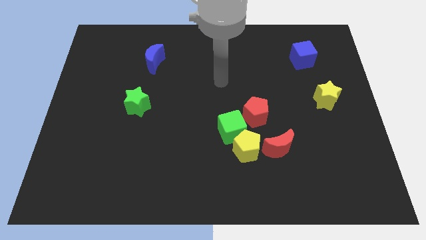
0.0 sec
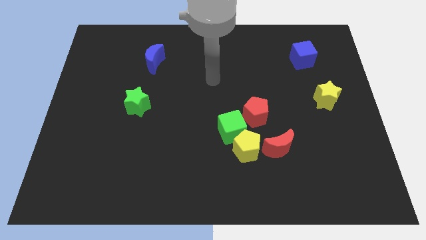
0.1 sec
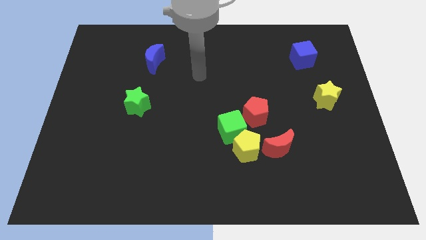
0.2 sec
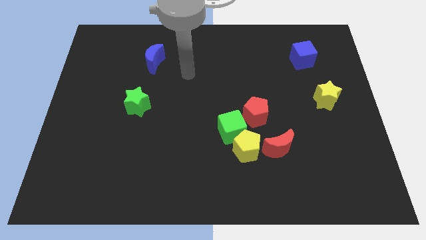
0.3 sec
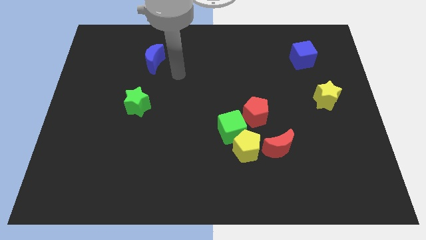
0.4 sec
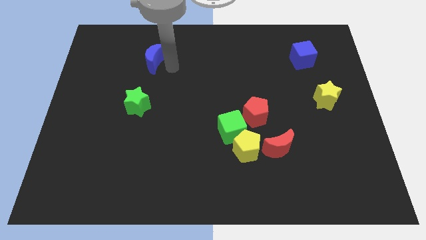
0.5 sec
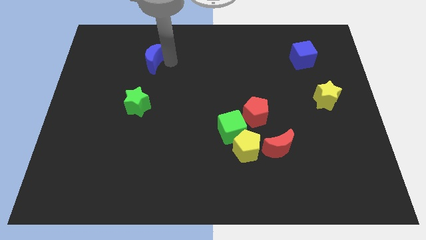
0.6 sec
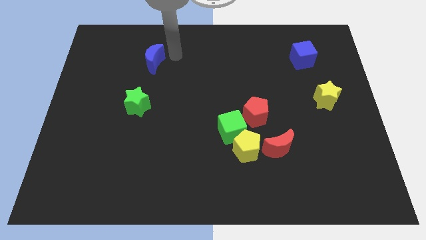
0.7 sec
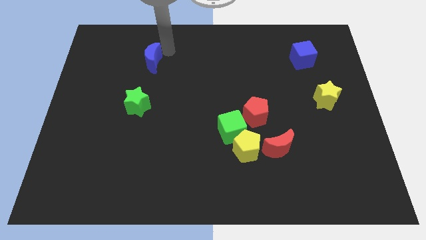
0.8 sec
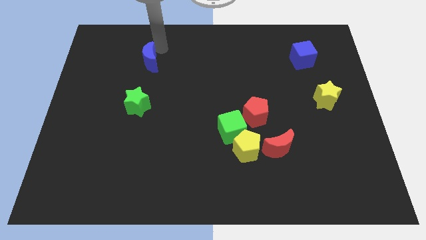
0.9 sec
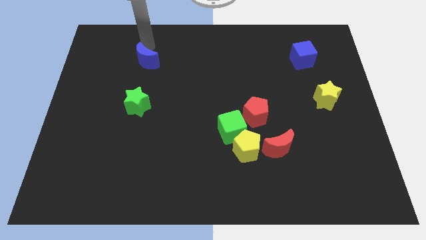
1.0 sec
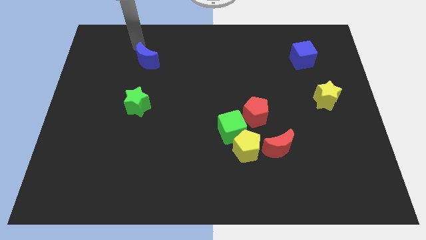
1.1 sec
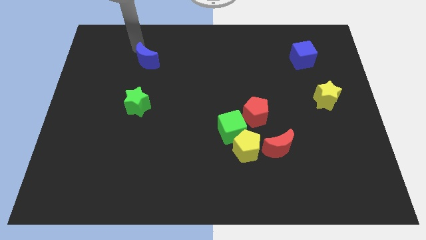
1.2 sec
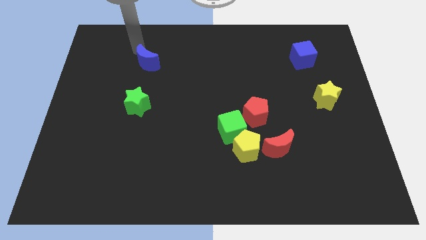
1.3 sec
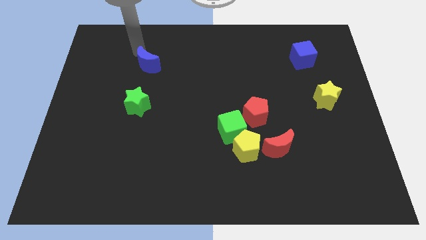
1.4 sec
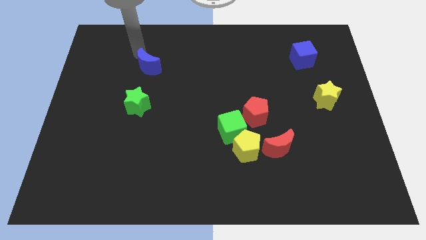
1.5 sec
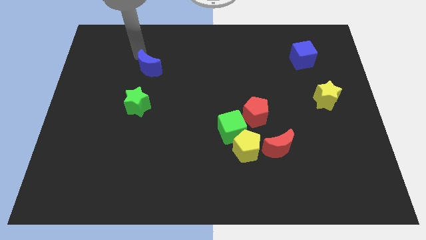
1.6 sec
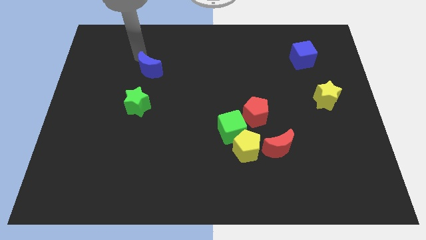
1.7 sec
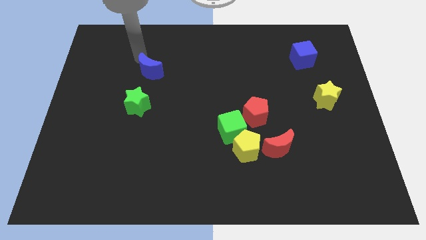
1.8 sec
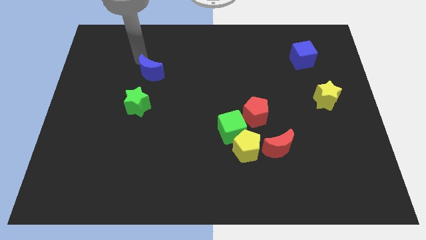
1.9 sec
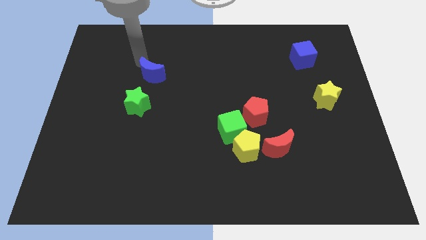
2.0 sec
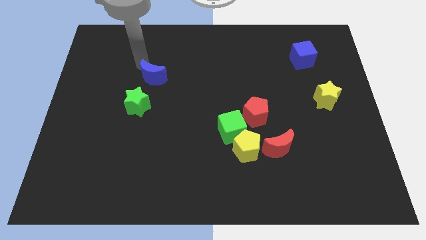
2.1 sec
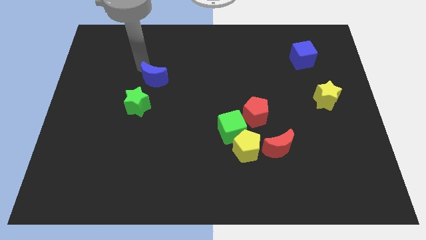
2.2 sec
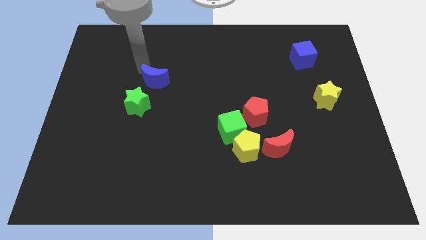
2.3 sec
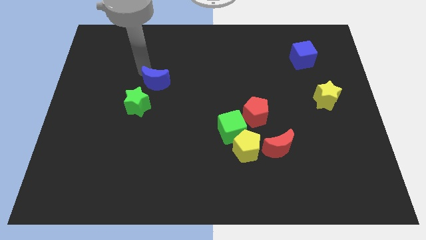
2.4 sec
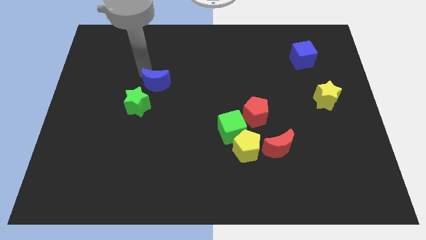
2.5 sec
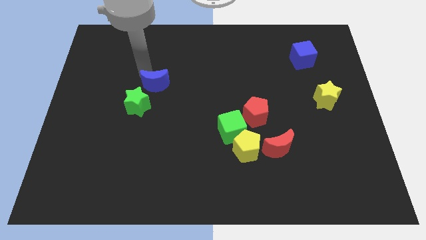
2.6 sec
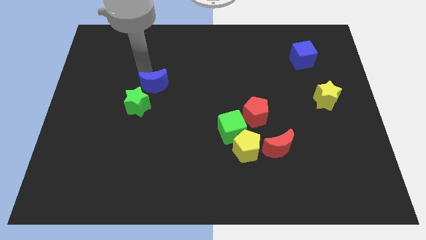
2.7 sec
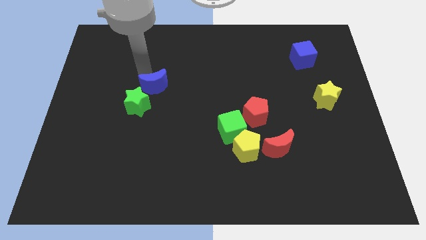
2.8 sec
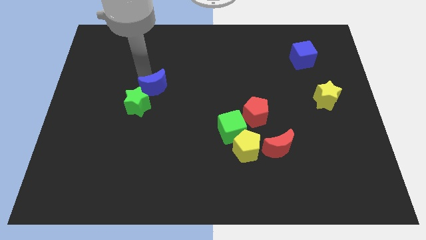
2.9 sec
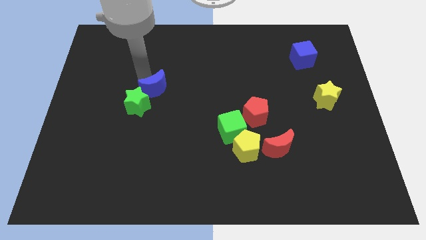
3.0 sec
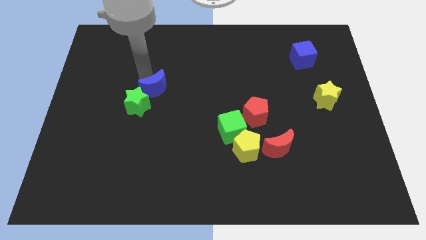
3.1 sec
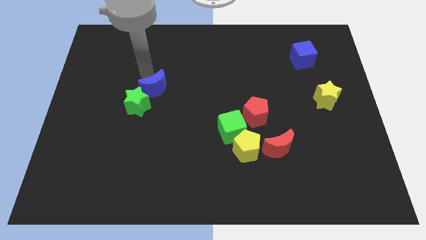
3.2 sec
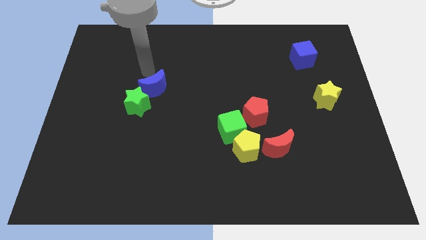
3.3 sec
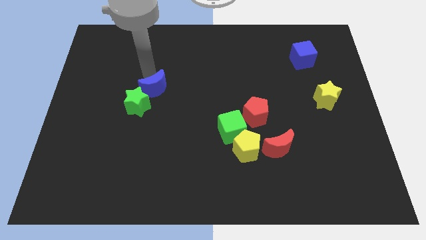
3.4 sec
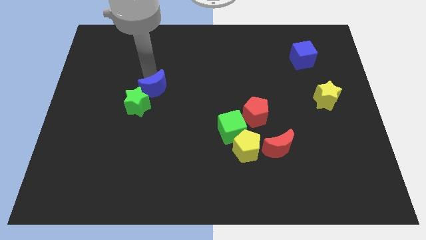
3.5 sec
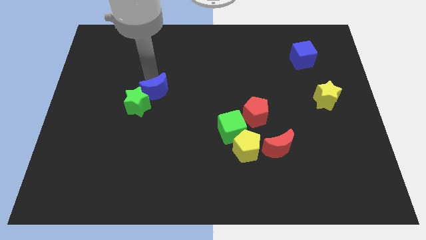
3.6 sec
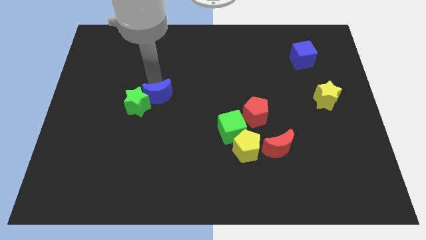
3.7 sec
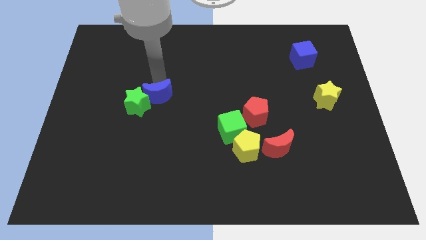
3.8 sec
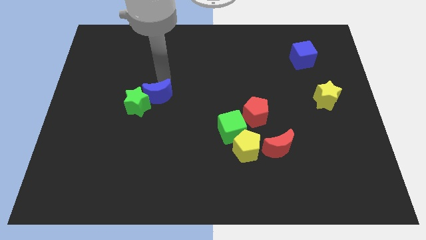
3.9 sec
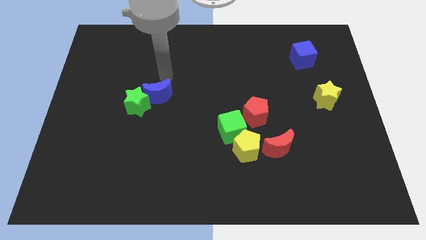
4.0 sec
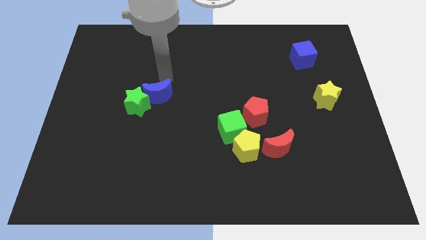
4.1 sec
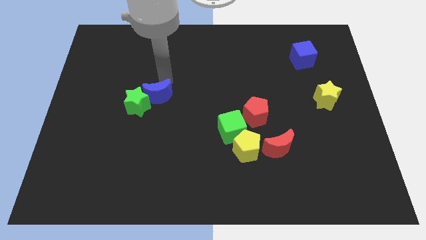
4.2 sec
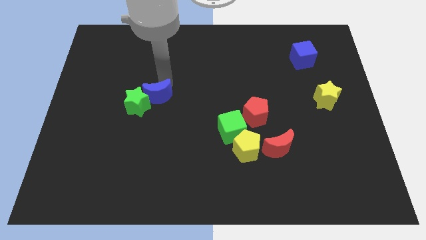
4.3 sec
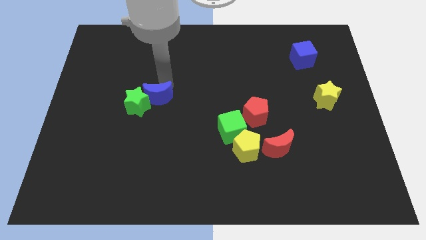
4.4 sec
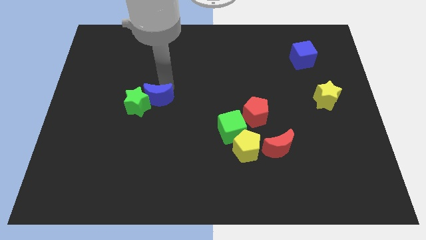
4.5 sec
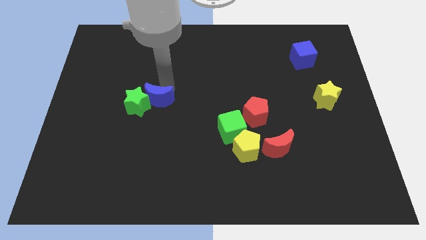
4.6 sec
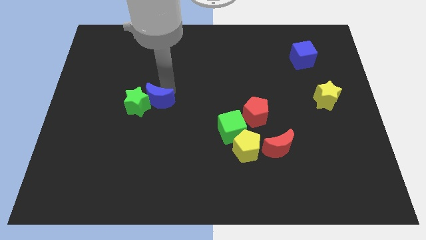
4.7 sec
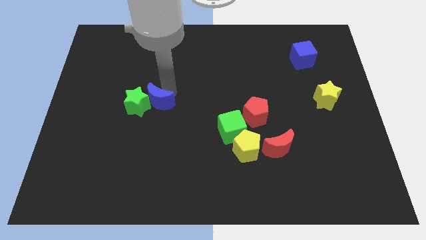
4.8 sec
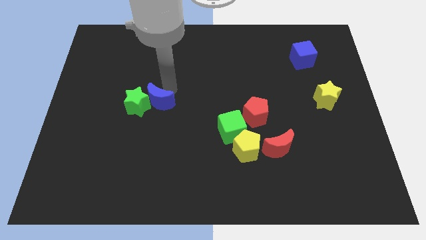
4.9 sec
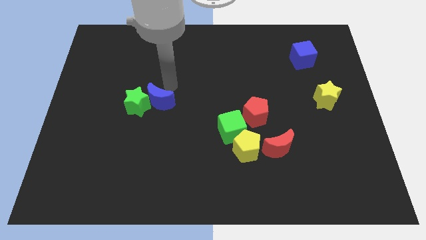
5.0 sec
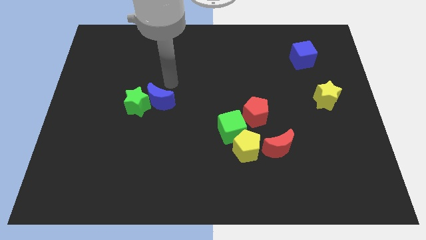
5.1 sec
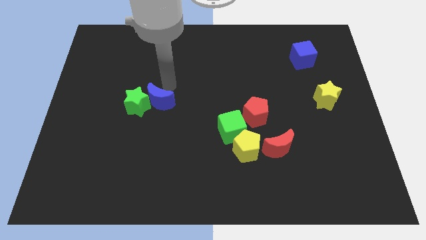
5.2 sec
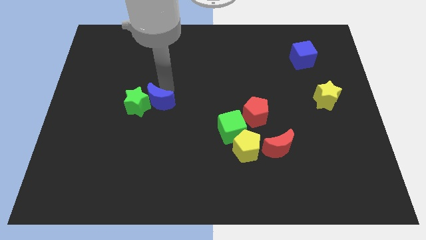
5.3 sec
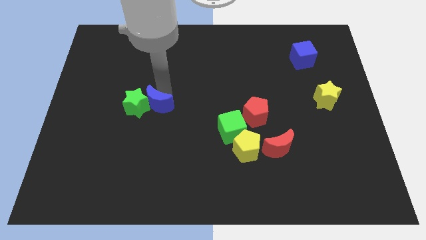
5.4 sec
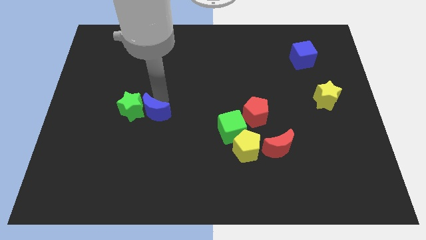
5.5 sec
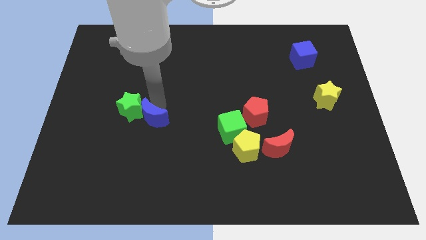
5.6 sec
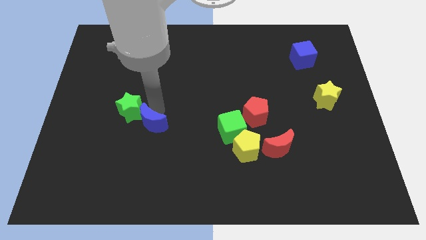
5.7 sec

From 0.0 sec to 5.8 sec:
push the blue moon downwards

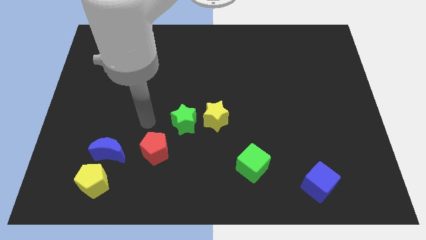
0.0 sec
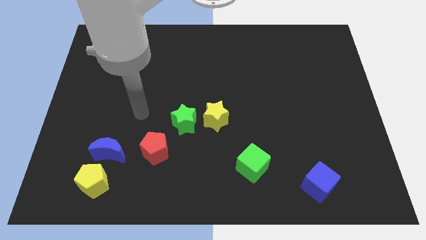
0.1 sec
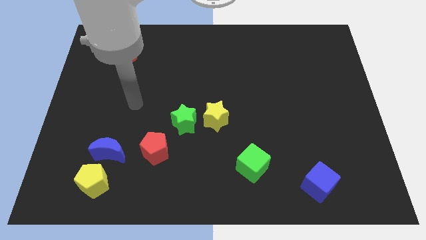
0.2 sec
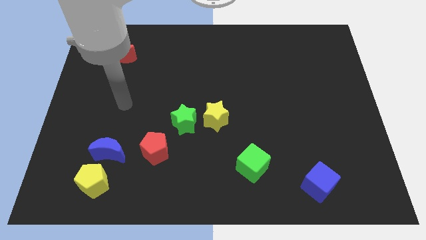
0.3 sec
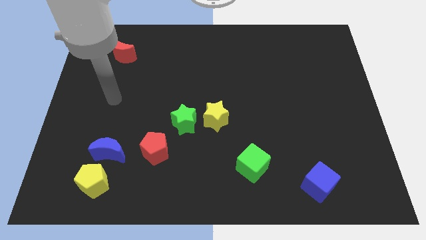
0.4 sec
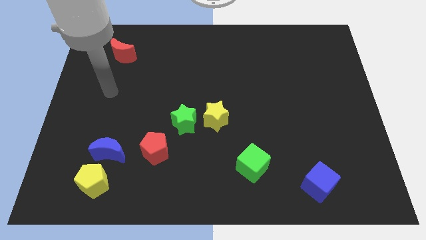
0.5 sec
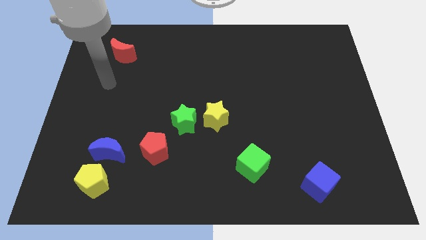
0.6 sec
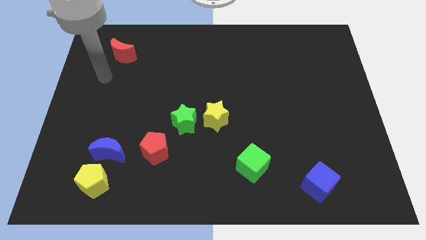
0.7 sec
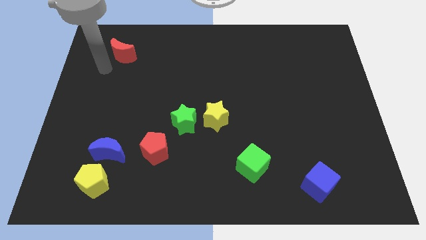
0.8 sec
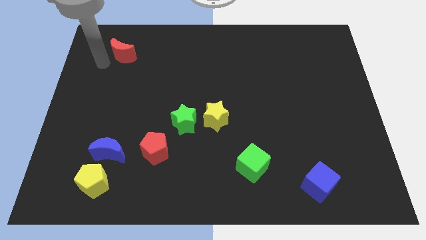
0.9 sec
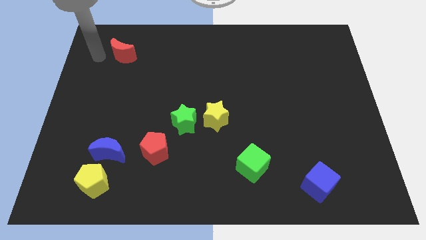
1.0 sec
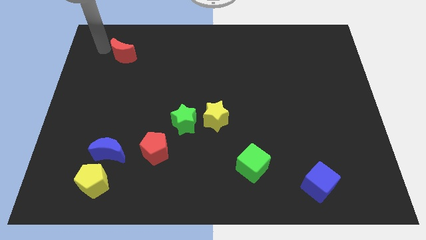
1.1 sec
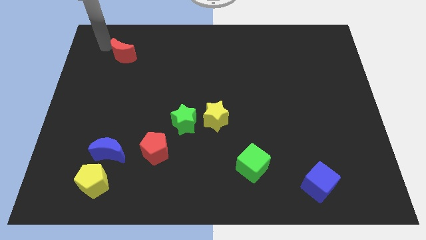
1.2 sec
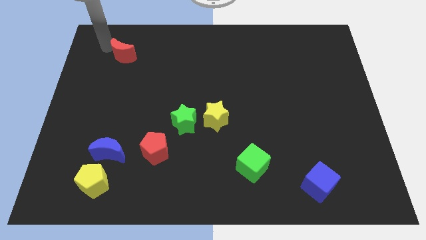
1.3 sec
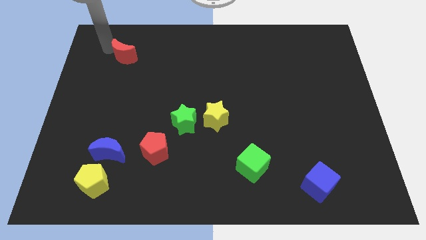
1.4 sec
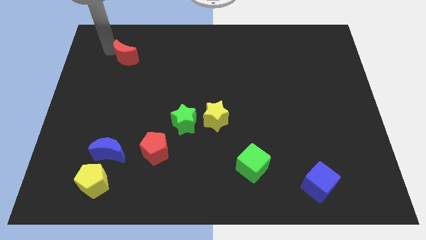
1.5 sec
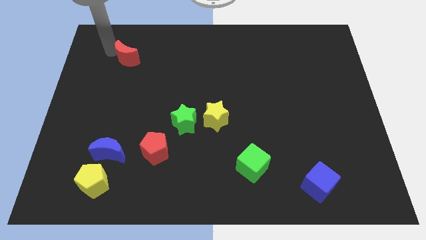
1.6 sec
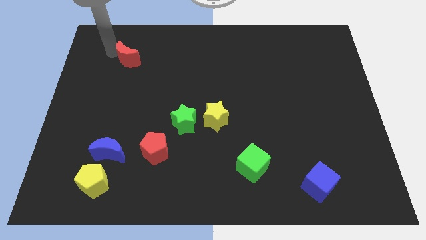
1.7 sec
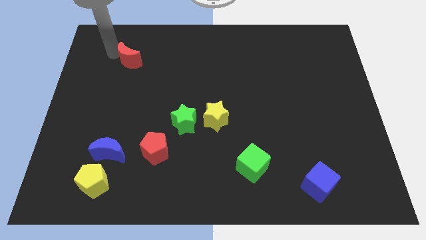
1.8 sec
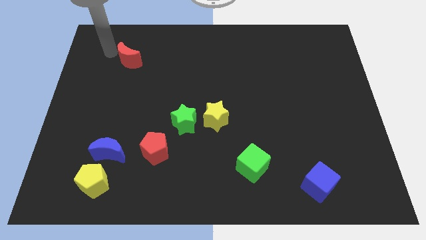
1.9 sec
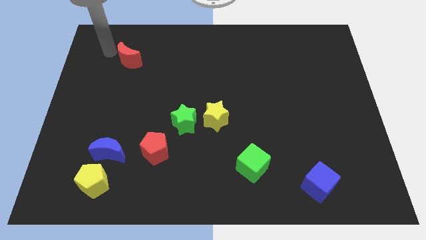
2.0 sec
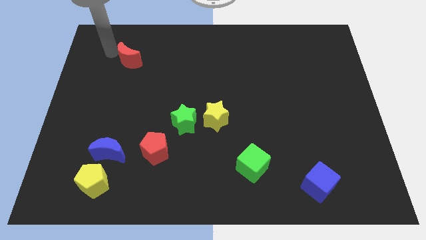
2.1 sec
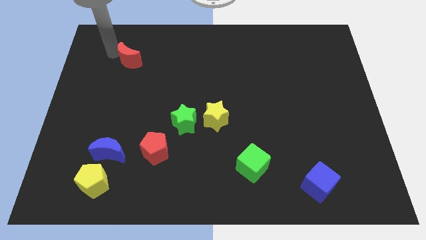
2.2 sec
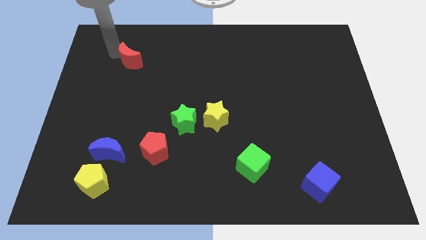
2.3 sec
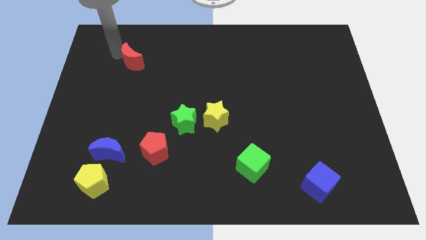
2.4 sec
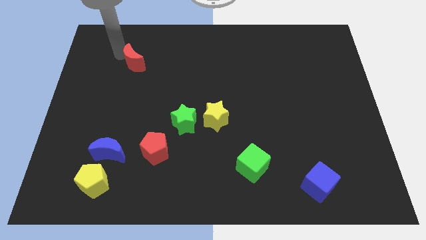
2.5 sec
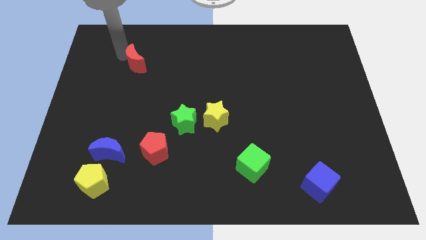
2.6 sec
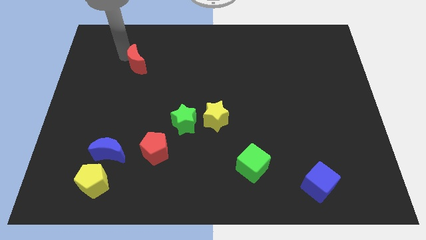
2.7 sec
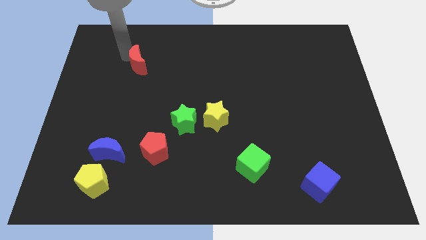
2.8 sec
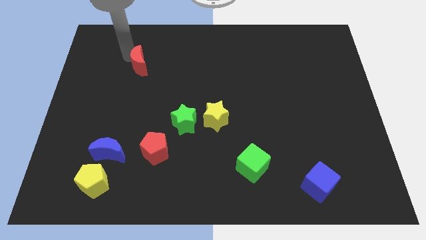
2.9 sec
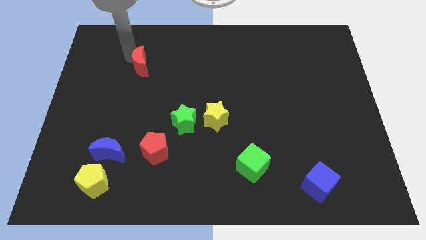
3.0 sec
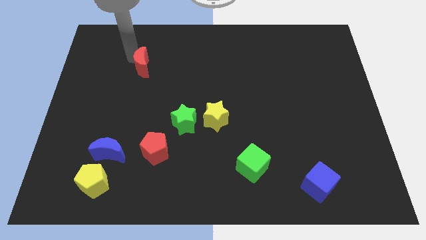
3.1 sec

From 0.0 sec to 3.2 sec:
slightly push the red moon down and to the right diagonally
